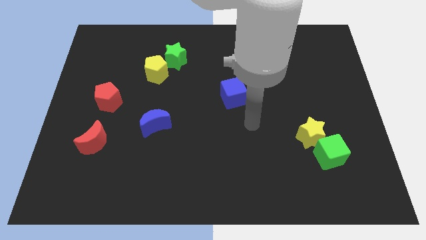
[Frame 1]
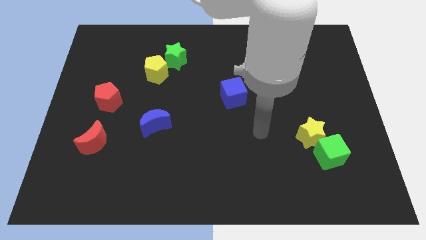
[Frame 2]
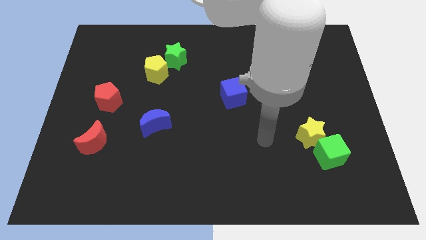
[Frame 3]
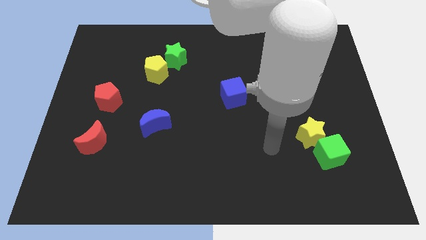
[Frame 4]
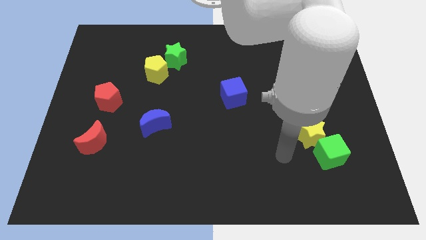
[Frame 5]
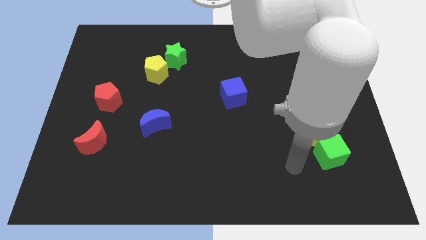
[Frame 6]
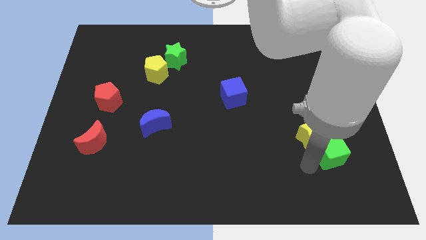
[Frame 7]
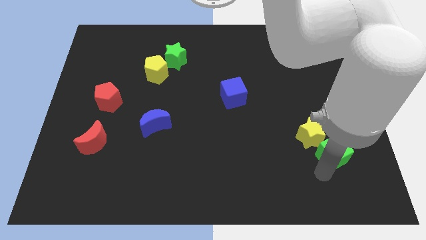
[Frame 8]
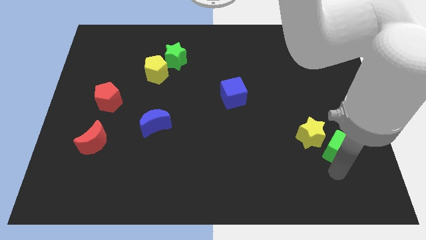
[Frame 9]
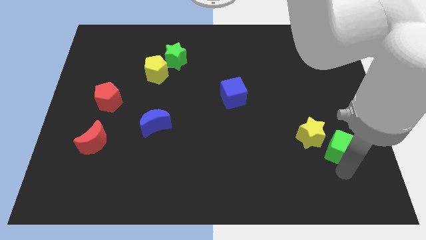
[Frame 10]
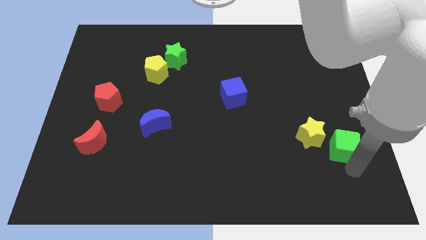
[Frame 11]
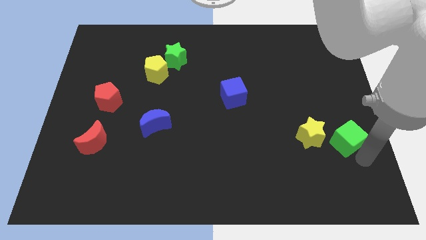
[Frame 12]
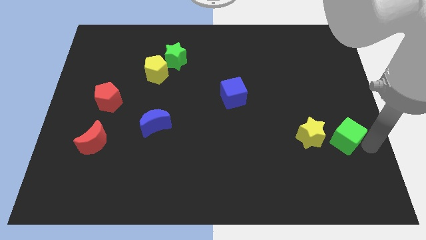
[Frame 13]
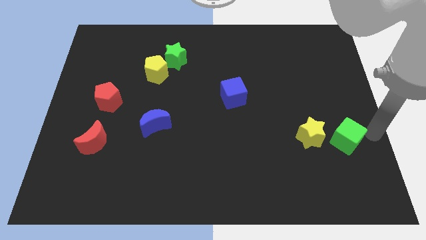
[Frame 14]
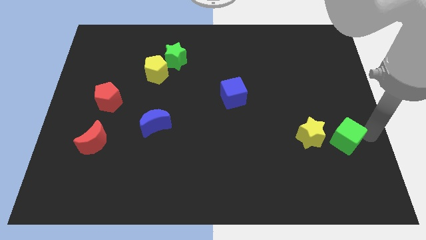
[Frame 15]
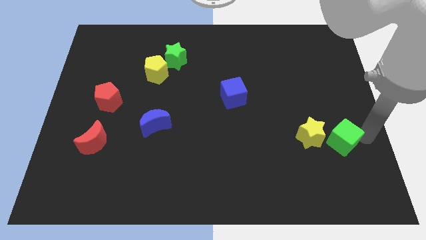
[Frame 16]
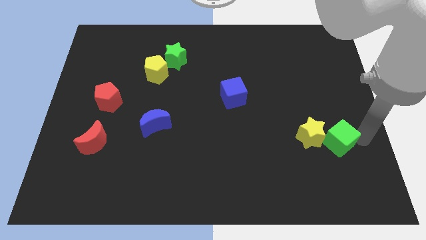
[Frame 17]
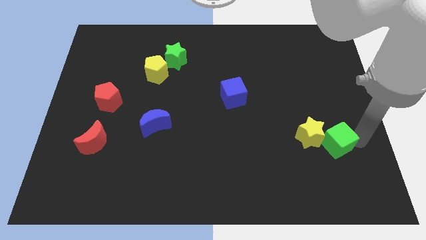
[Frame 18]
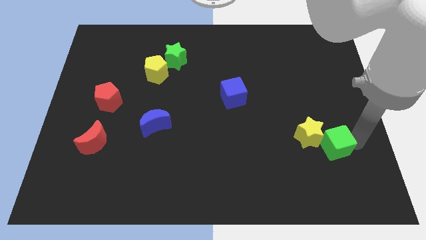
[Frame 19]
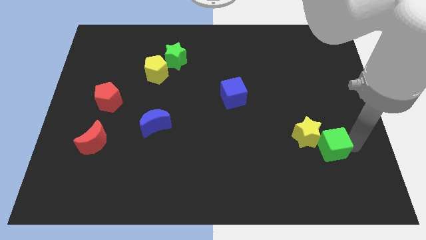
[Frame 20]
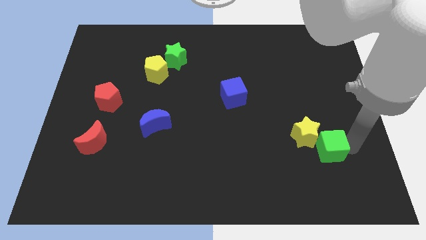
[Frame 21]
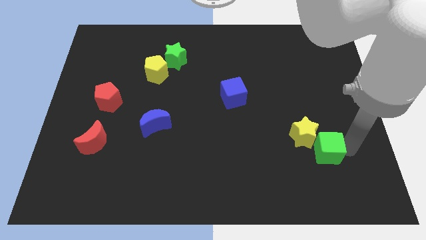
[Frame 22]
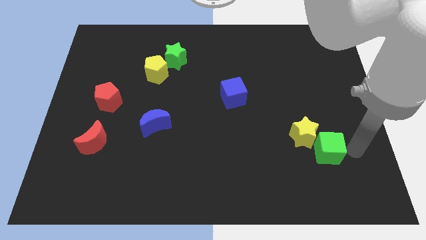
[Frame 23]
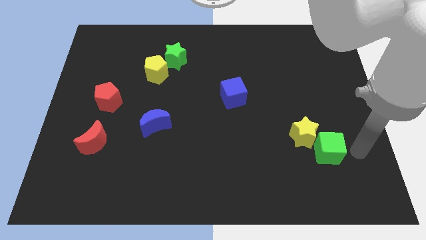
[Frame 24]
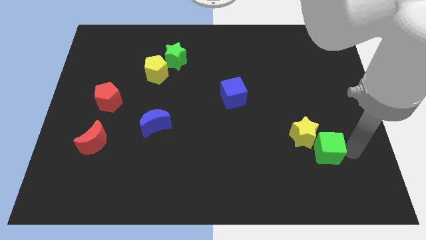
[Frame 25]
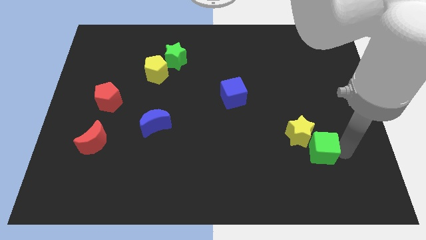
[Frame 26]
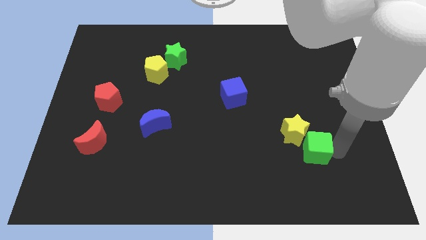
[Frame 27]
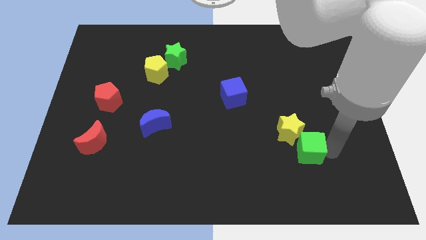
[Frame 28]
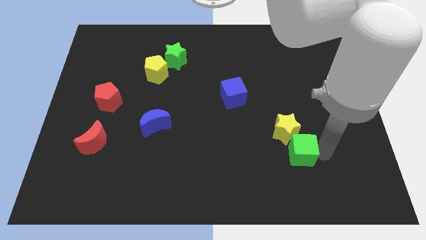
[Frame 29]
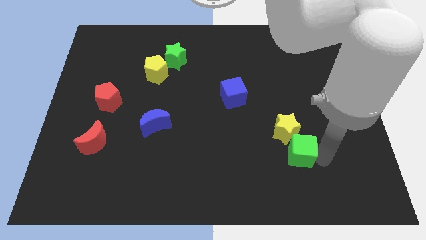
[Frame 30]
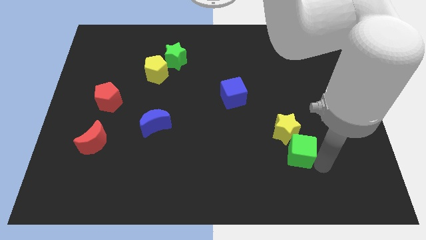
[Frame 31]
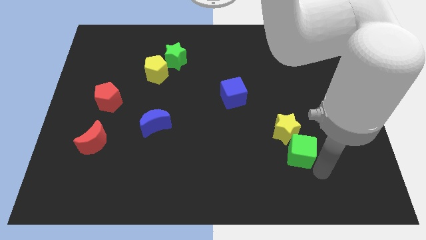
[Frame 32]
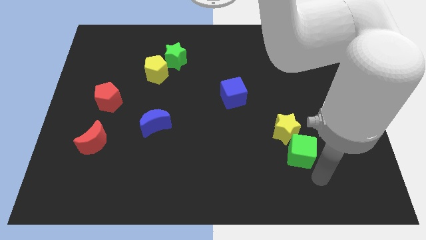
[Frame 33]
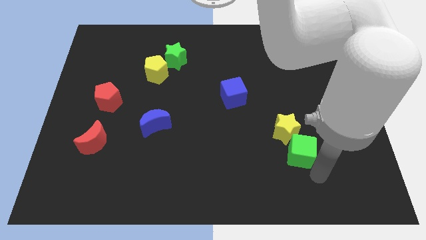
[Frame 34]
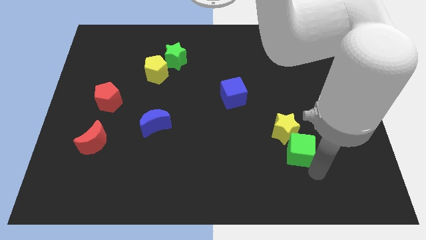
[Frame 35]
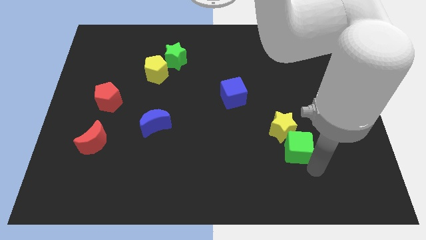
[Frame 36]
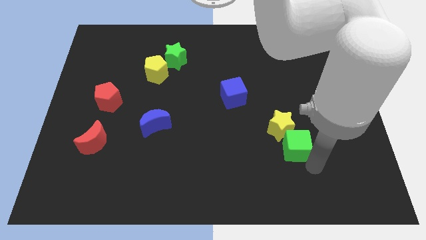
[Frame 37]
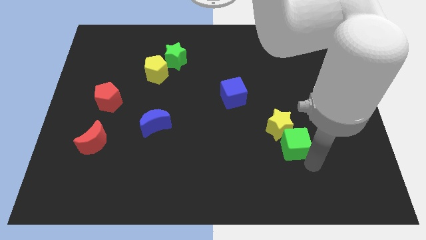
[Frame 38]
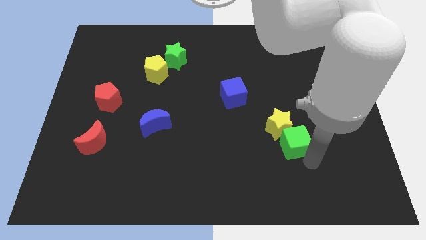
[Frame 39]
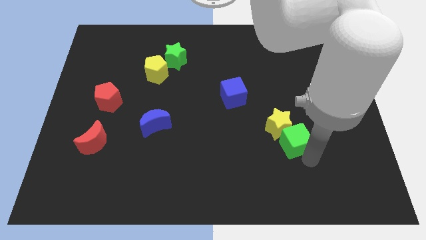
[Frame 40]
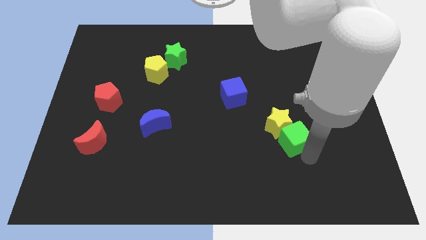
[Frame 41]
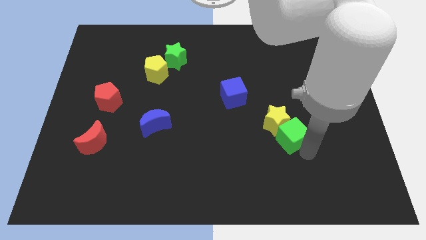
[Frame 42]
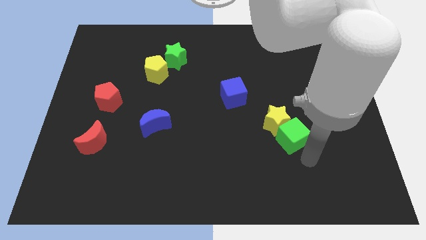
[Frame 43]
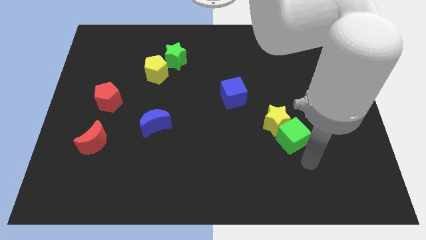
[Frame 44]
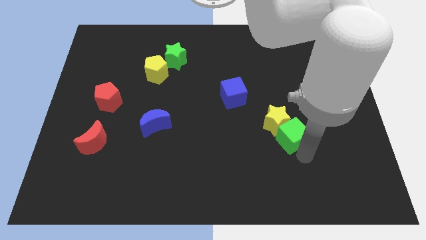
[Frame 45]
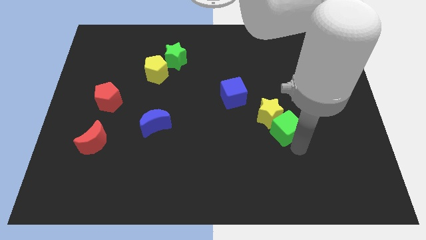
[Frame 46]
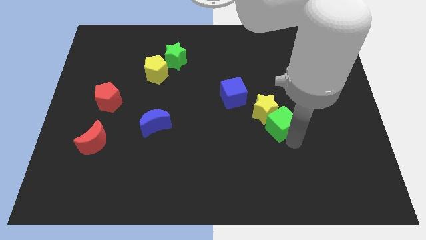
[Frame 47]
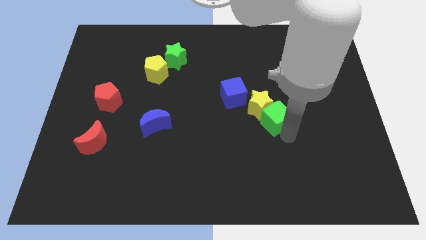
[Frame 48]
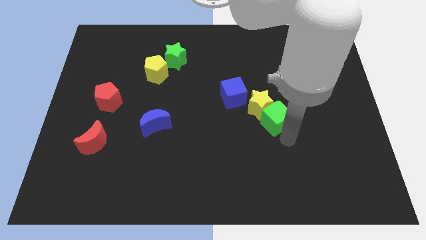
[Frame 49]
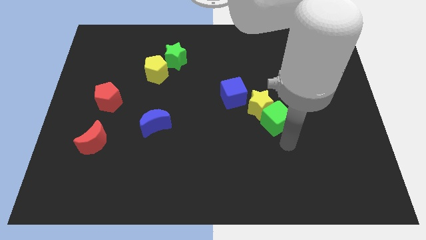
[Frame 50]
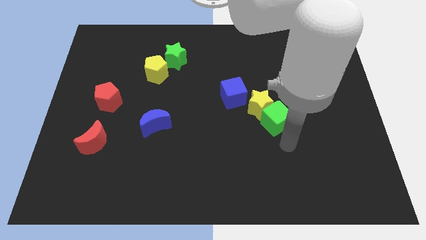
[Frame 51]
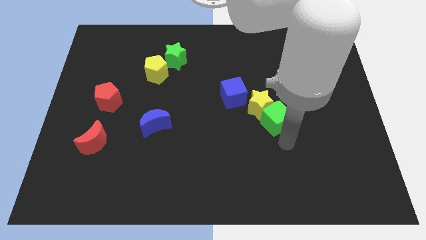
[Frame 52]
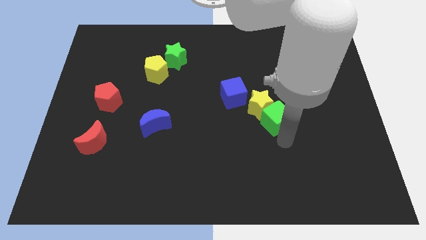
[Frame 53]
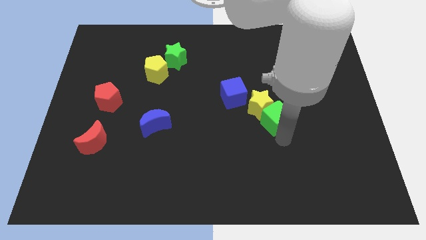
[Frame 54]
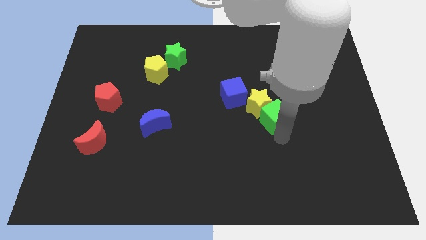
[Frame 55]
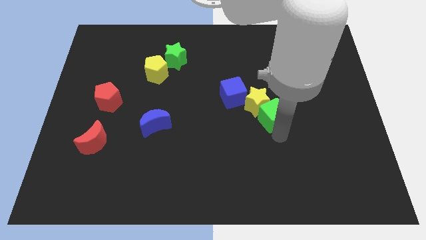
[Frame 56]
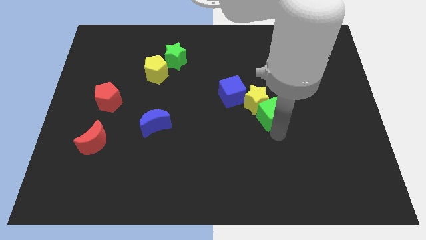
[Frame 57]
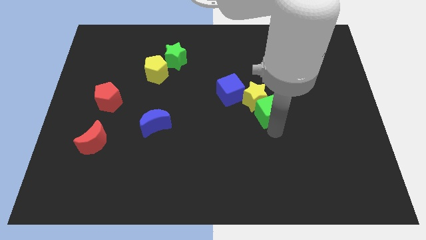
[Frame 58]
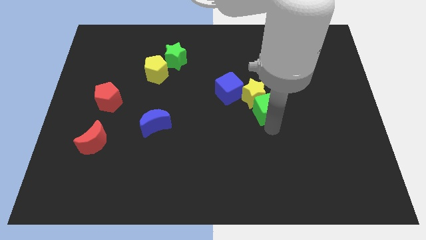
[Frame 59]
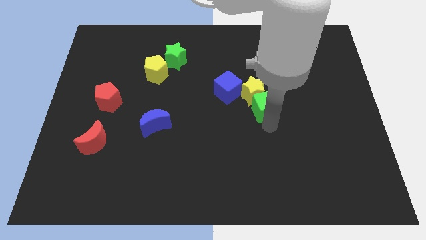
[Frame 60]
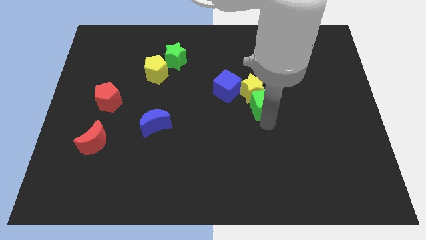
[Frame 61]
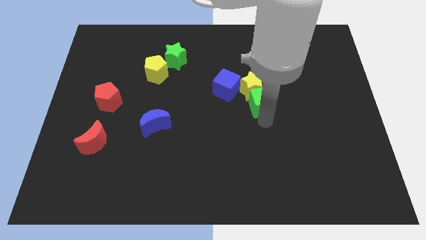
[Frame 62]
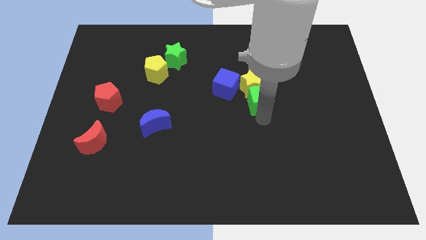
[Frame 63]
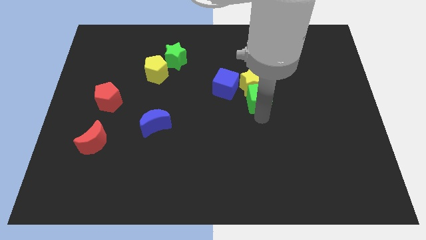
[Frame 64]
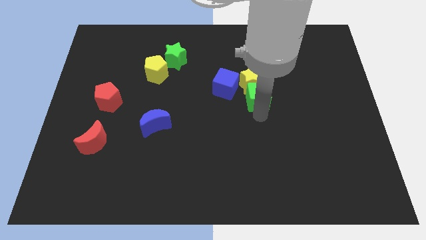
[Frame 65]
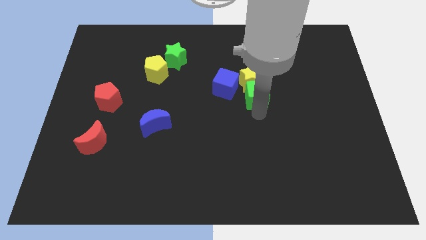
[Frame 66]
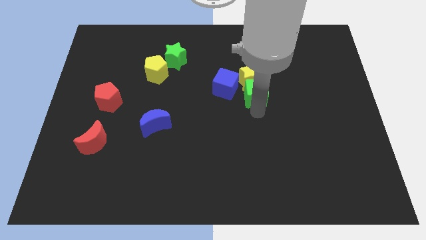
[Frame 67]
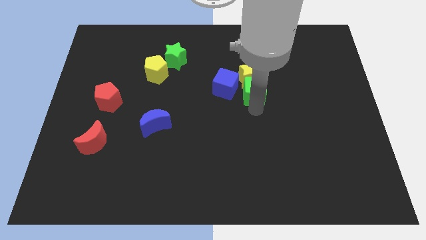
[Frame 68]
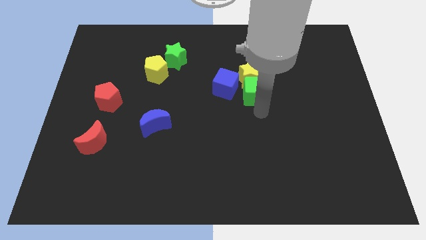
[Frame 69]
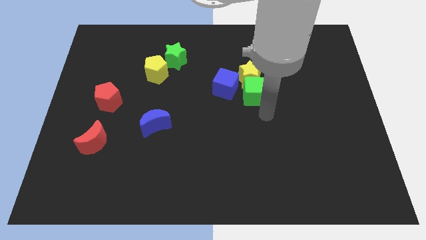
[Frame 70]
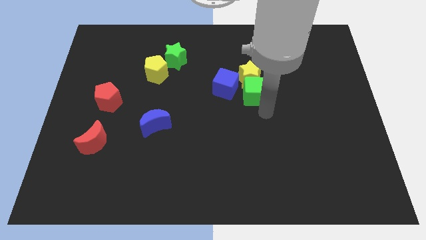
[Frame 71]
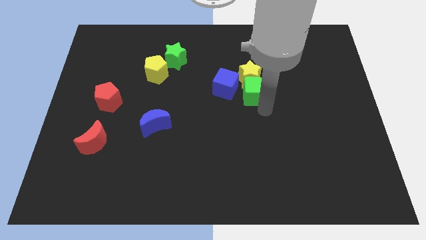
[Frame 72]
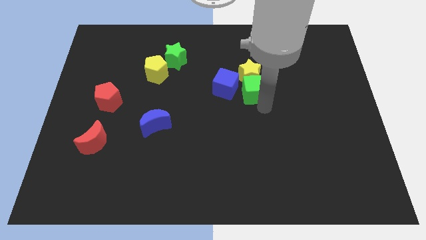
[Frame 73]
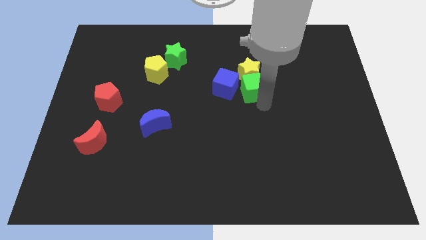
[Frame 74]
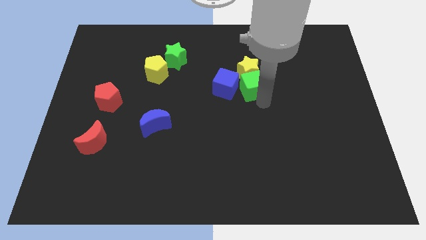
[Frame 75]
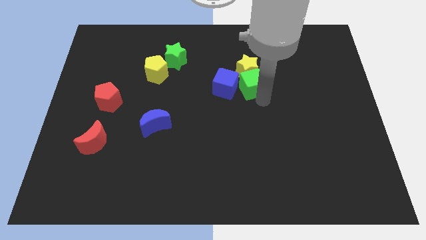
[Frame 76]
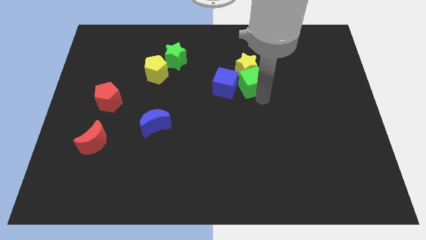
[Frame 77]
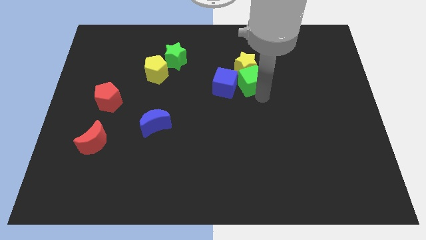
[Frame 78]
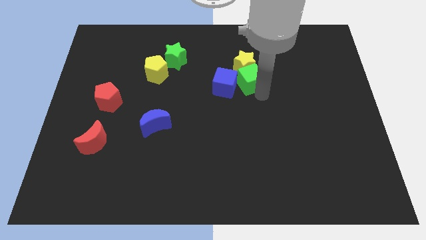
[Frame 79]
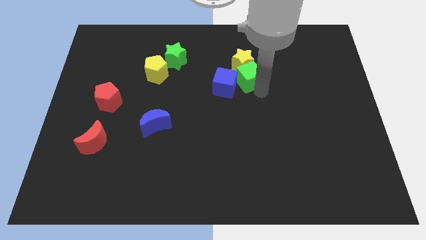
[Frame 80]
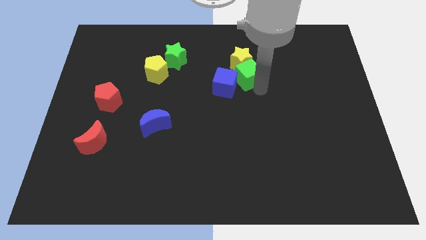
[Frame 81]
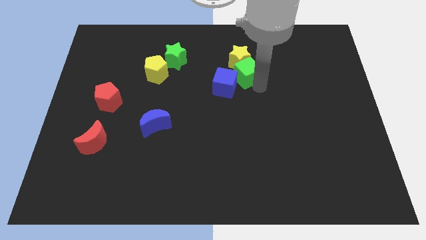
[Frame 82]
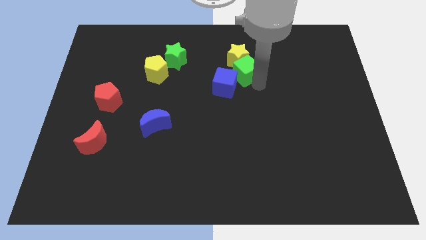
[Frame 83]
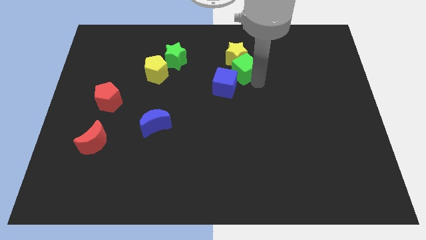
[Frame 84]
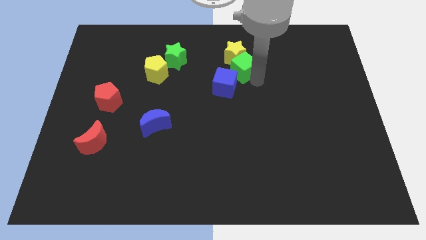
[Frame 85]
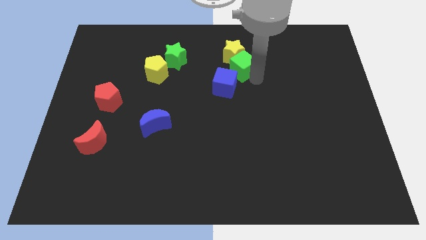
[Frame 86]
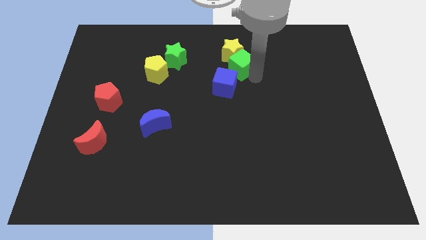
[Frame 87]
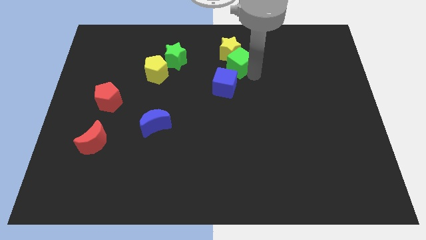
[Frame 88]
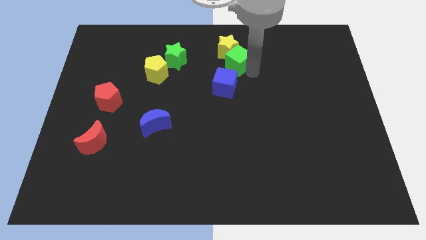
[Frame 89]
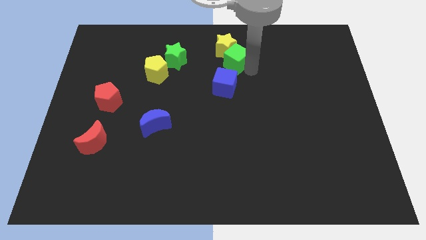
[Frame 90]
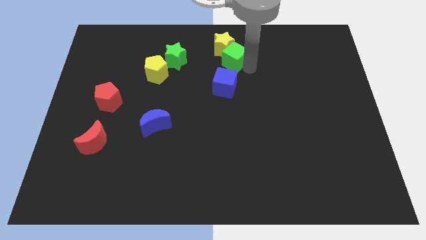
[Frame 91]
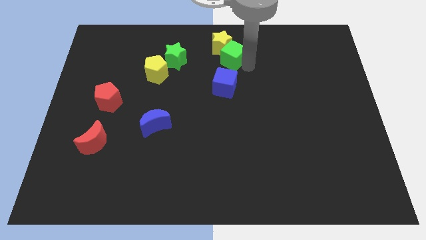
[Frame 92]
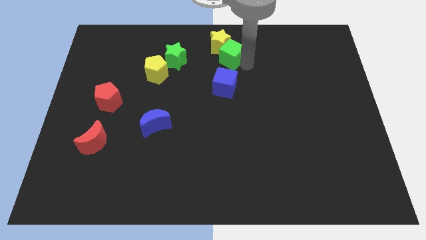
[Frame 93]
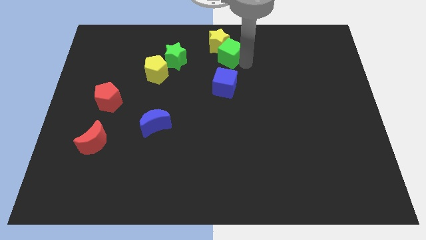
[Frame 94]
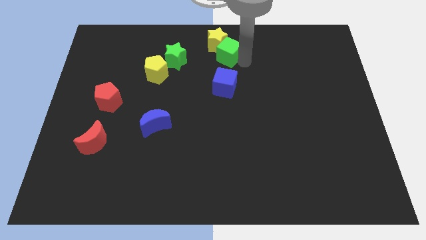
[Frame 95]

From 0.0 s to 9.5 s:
put the green cube to the top side
